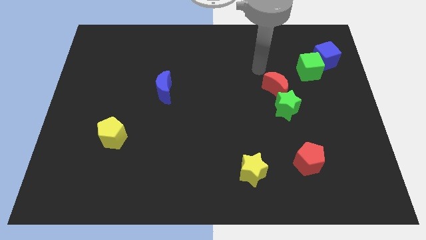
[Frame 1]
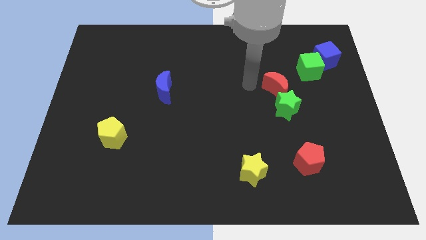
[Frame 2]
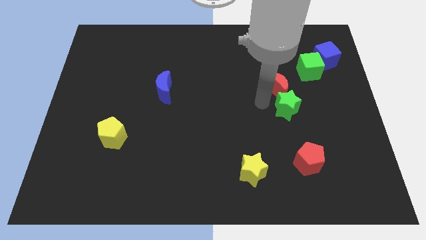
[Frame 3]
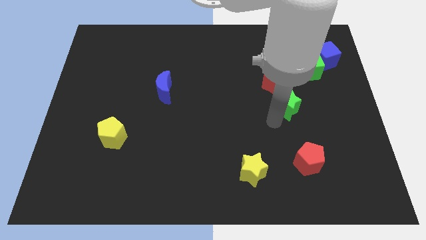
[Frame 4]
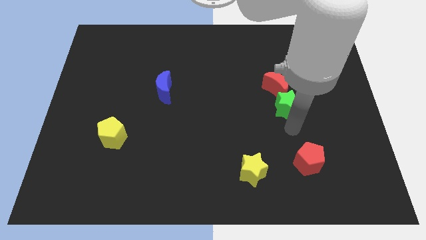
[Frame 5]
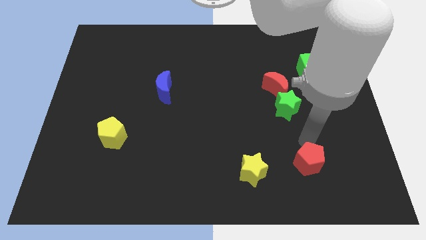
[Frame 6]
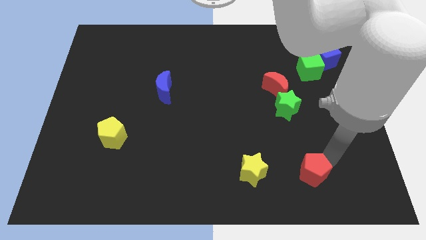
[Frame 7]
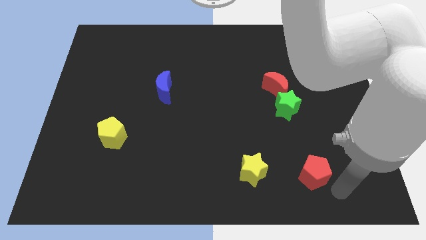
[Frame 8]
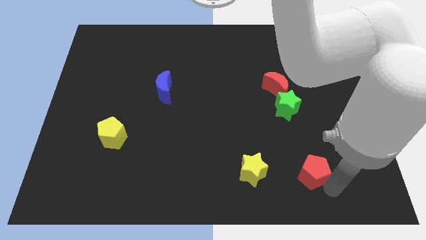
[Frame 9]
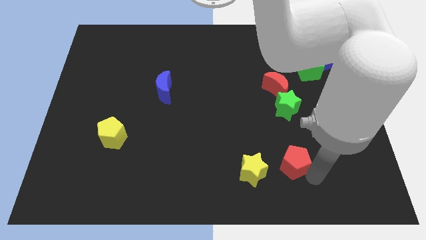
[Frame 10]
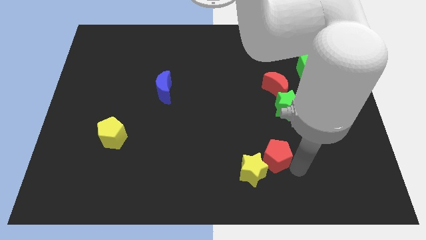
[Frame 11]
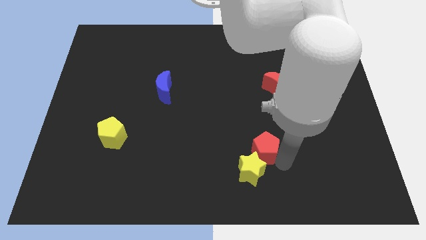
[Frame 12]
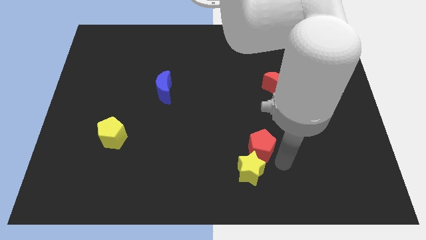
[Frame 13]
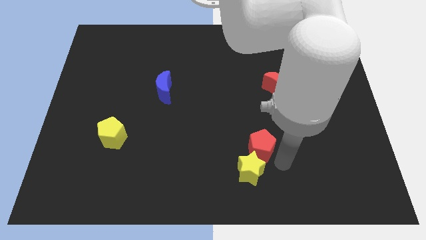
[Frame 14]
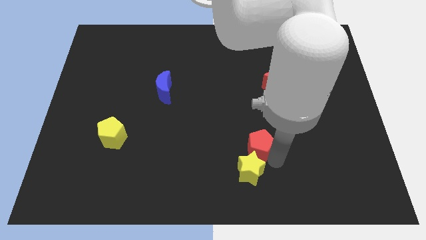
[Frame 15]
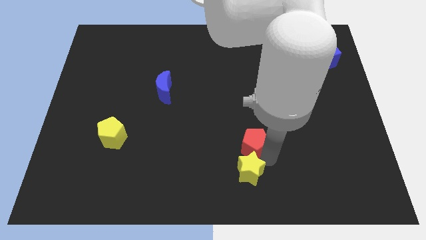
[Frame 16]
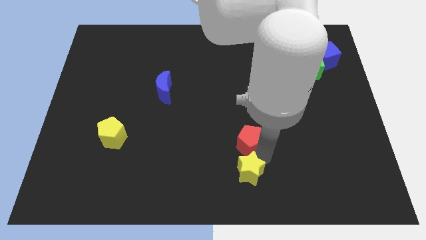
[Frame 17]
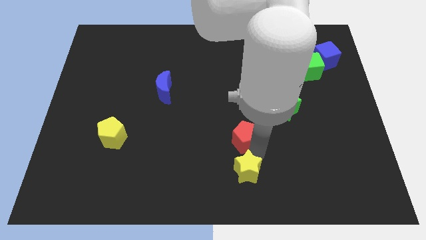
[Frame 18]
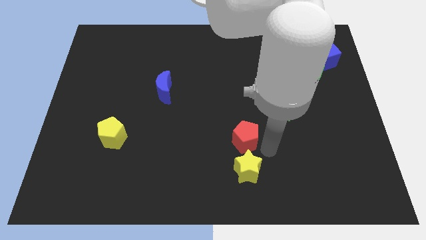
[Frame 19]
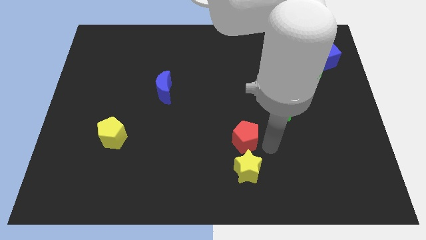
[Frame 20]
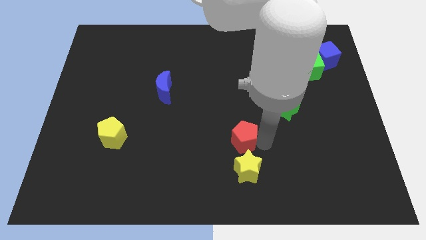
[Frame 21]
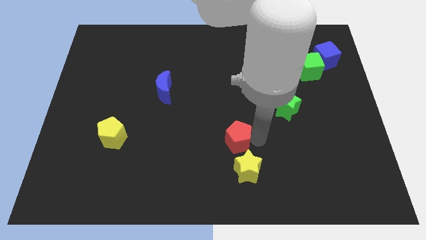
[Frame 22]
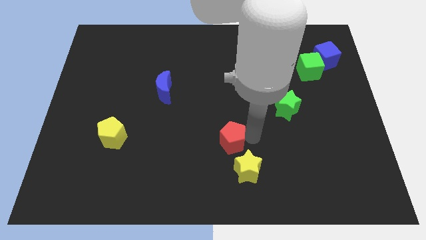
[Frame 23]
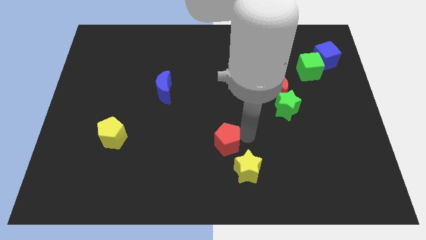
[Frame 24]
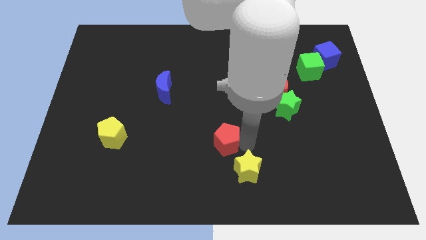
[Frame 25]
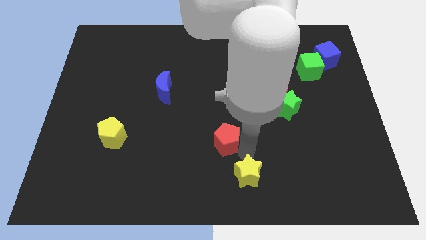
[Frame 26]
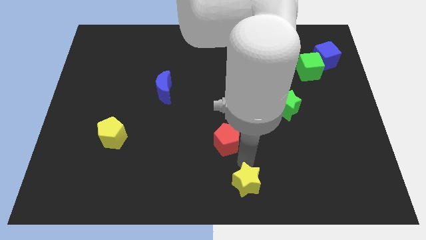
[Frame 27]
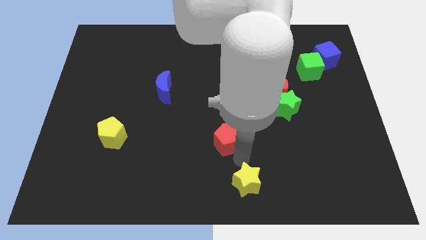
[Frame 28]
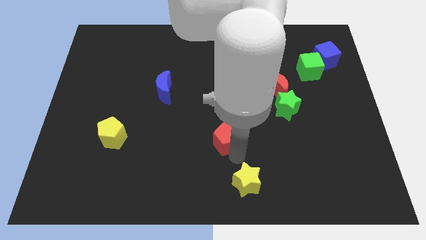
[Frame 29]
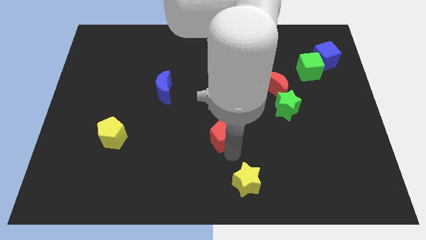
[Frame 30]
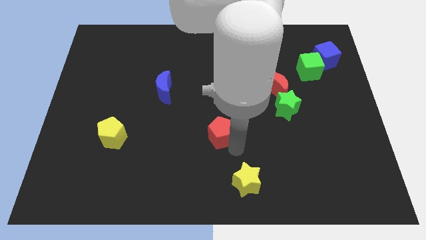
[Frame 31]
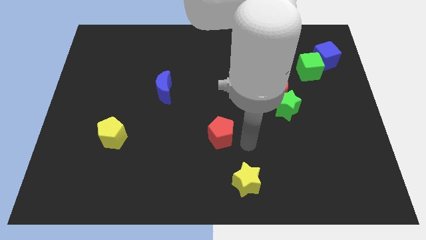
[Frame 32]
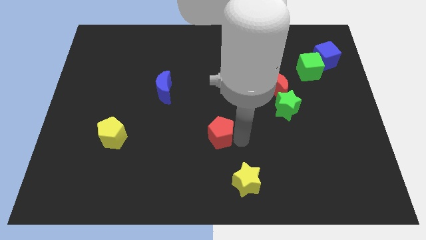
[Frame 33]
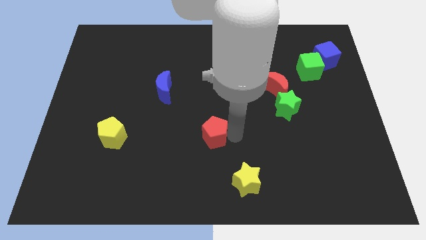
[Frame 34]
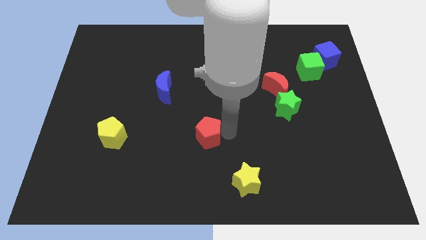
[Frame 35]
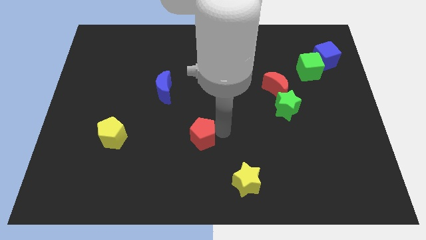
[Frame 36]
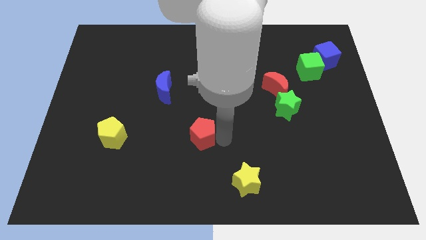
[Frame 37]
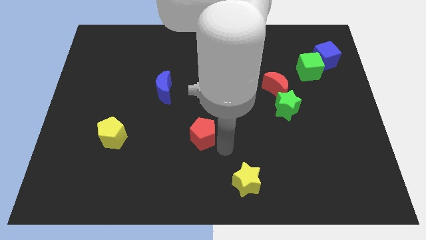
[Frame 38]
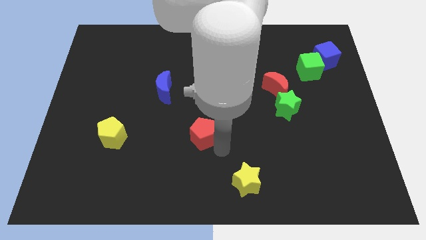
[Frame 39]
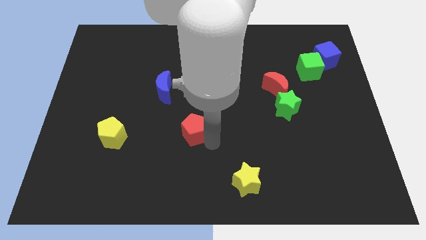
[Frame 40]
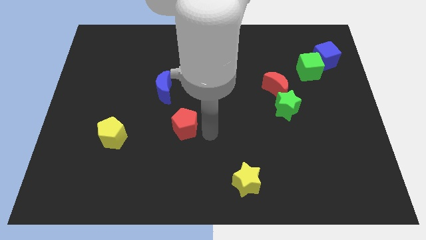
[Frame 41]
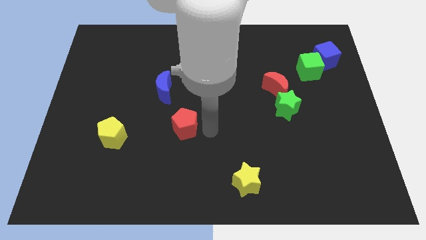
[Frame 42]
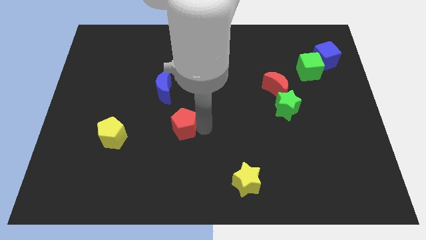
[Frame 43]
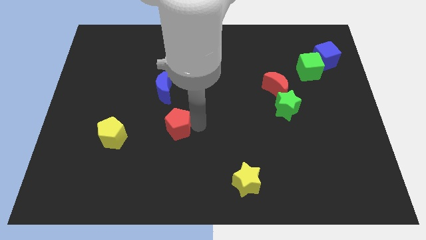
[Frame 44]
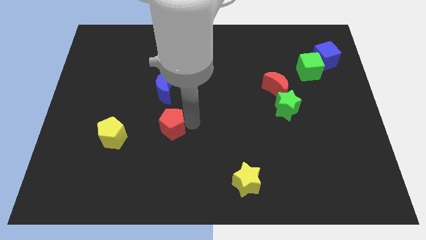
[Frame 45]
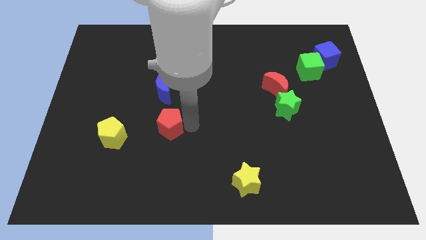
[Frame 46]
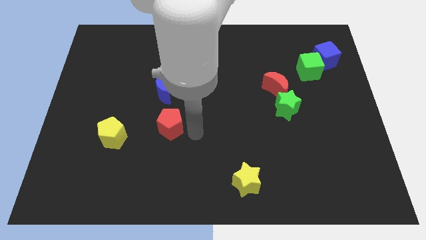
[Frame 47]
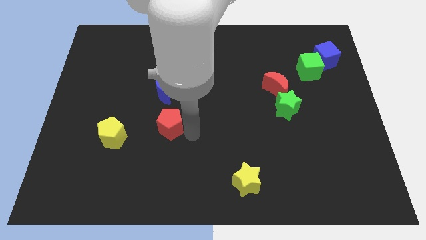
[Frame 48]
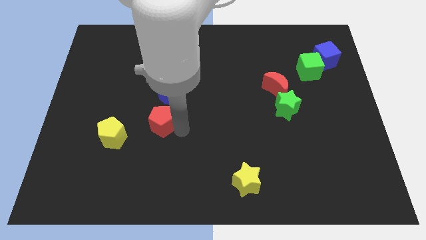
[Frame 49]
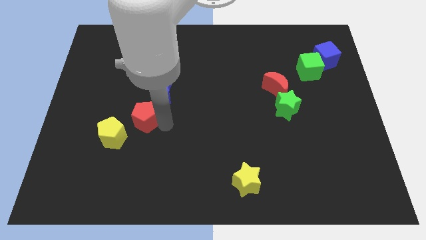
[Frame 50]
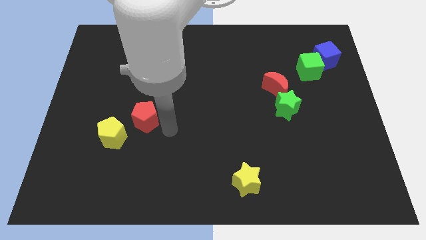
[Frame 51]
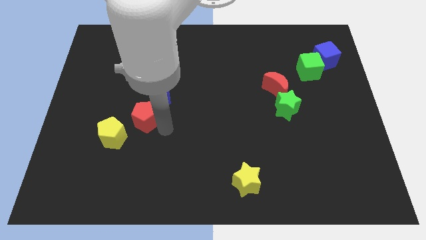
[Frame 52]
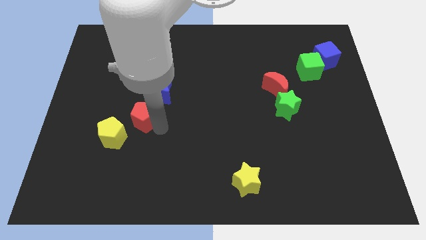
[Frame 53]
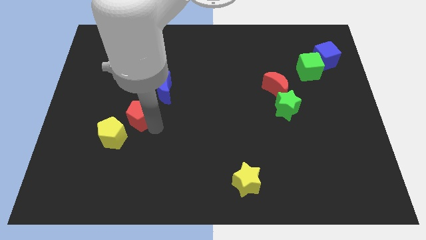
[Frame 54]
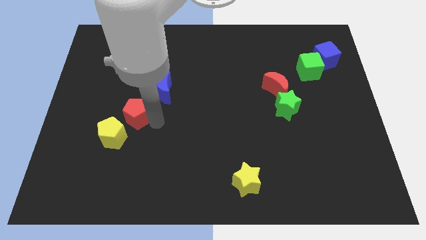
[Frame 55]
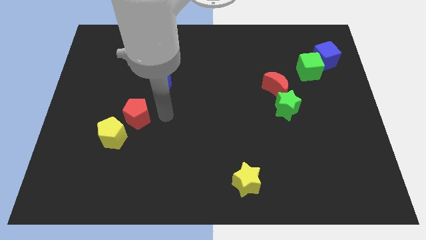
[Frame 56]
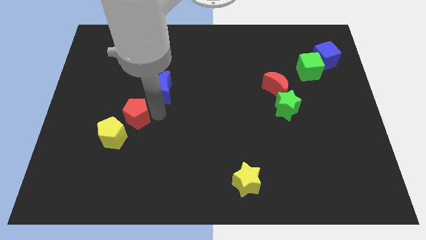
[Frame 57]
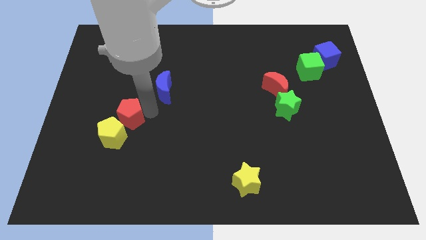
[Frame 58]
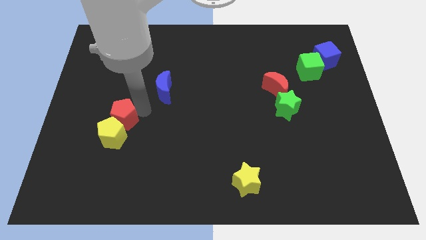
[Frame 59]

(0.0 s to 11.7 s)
push the red pentagon to the top left of the yellow pentagon

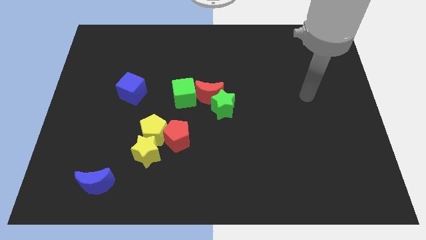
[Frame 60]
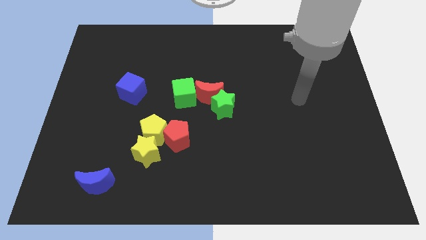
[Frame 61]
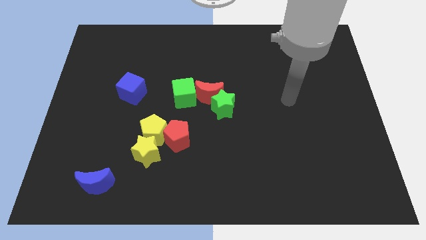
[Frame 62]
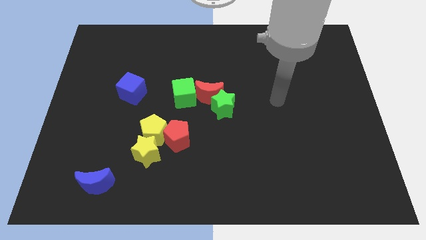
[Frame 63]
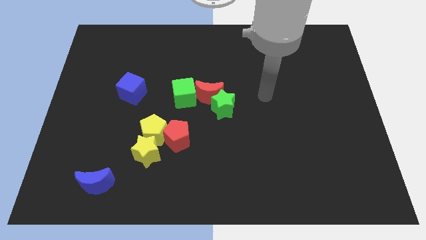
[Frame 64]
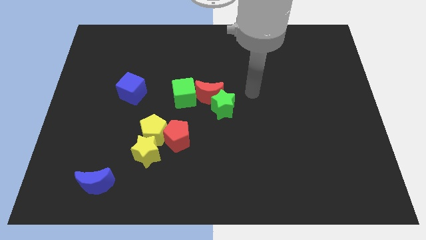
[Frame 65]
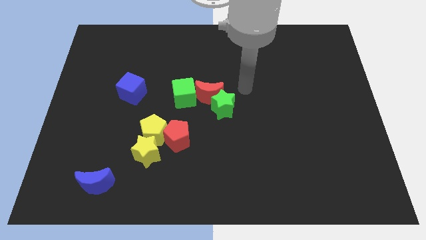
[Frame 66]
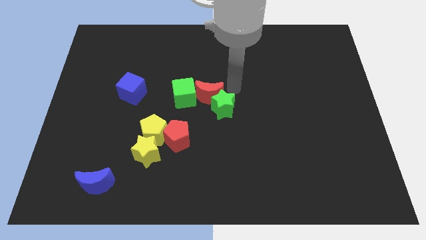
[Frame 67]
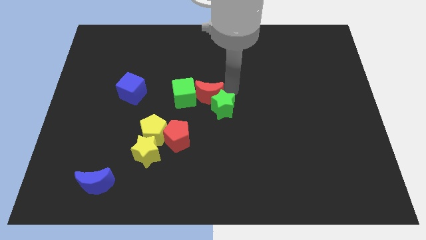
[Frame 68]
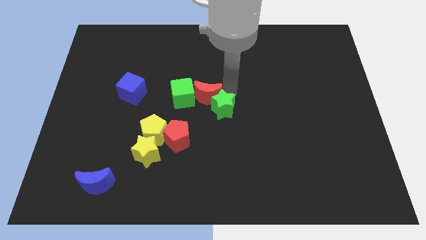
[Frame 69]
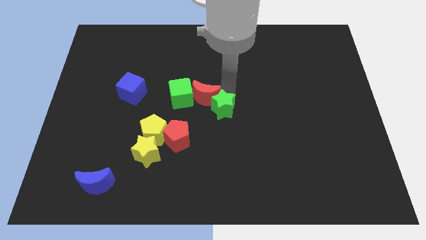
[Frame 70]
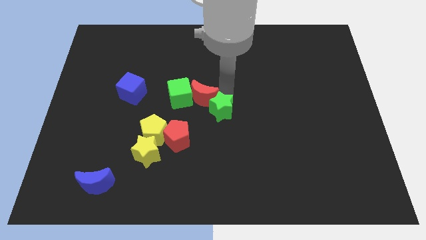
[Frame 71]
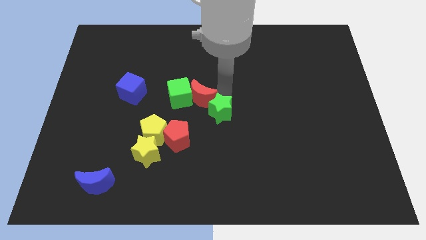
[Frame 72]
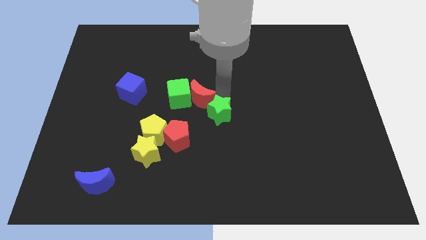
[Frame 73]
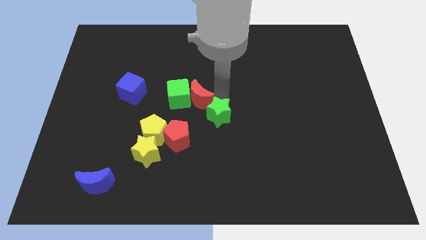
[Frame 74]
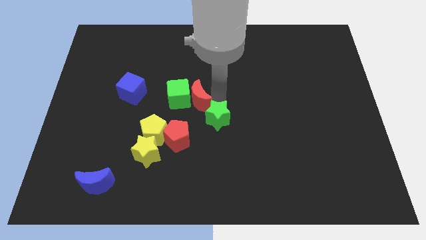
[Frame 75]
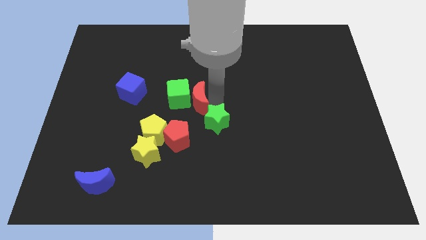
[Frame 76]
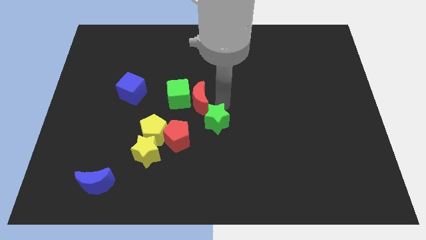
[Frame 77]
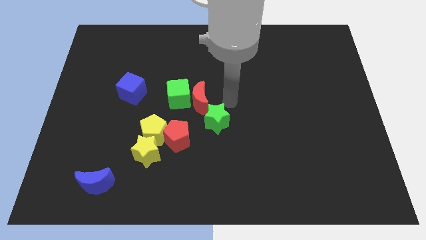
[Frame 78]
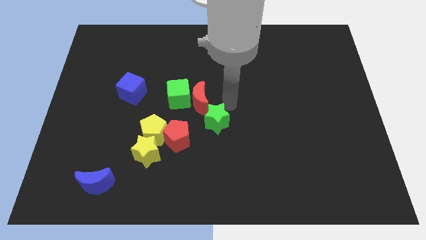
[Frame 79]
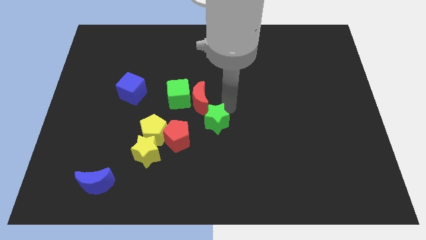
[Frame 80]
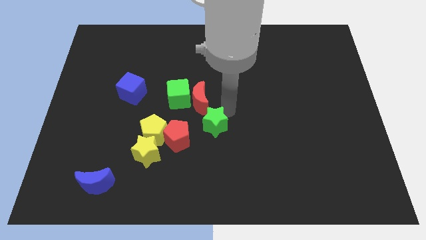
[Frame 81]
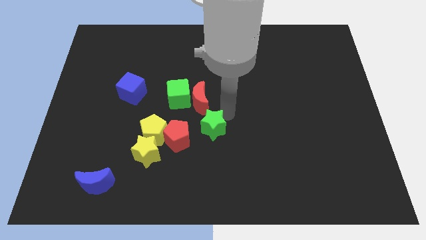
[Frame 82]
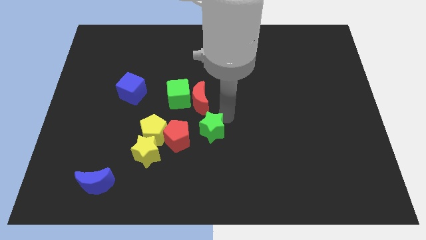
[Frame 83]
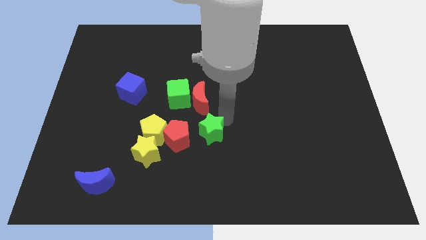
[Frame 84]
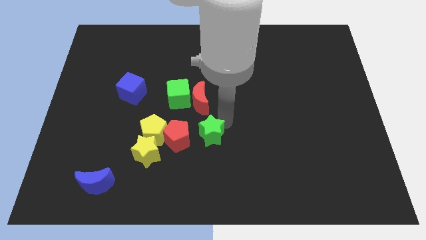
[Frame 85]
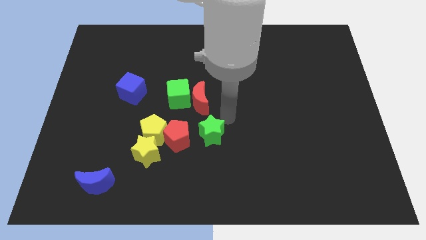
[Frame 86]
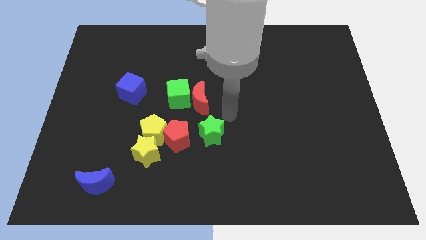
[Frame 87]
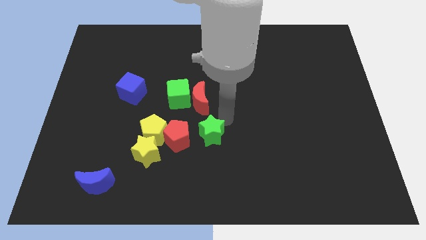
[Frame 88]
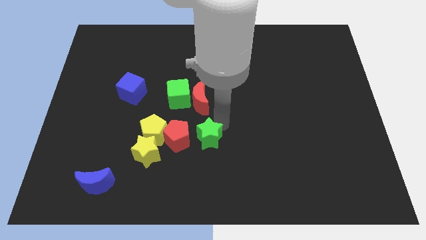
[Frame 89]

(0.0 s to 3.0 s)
put the green star right of the yellow star
